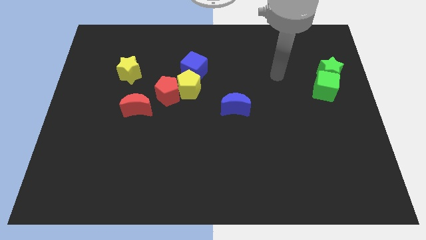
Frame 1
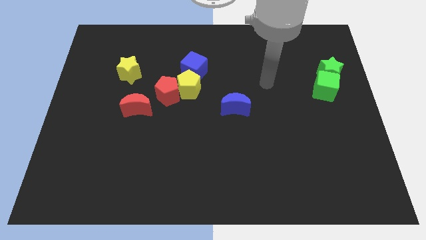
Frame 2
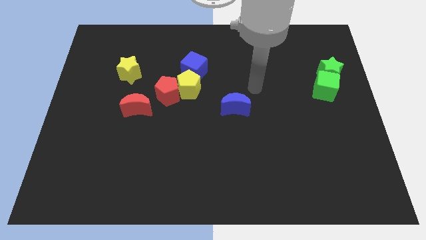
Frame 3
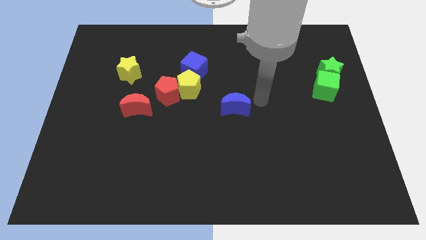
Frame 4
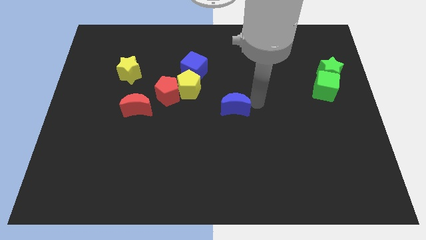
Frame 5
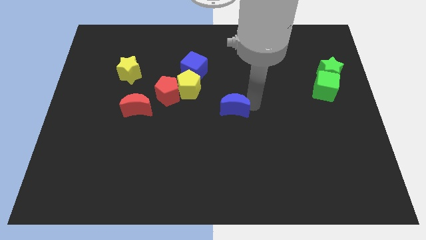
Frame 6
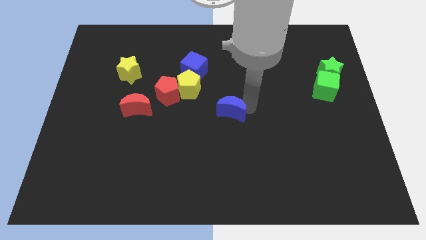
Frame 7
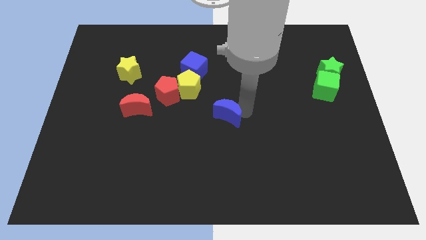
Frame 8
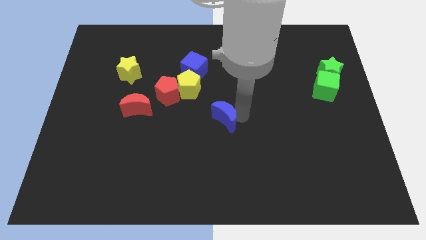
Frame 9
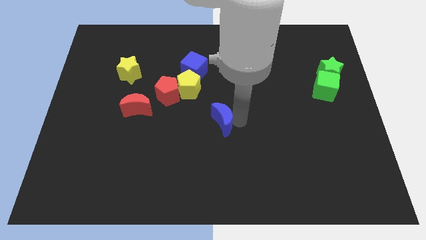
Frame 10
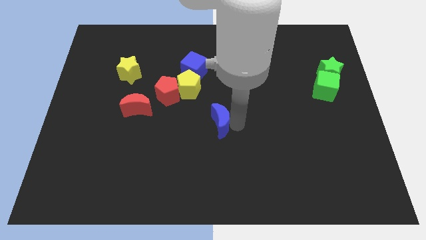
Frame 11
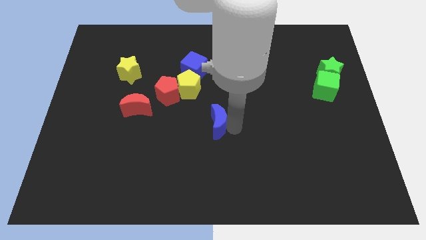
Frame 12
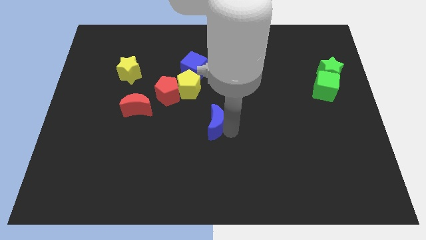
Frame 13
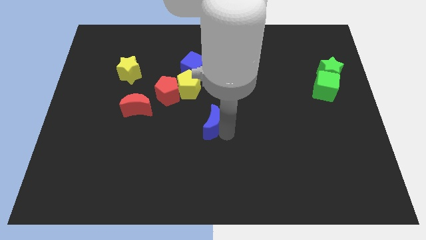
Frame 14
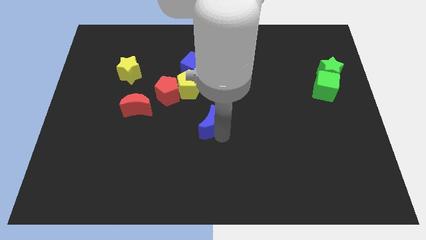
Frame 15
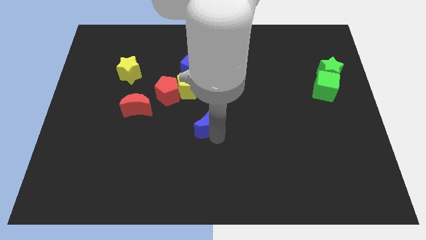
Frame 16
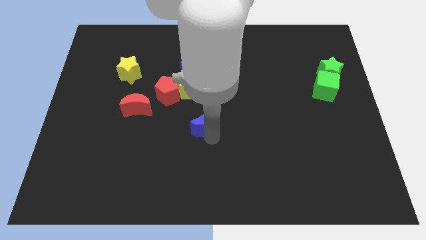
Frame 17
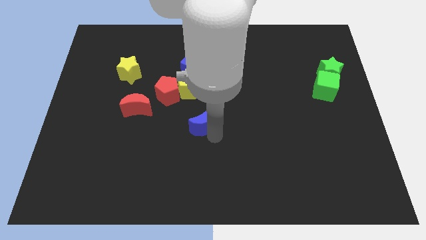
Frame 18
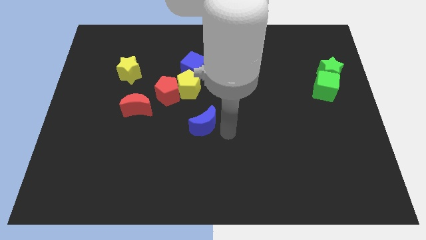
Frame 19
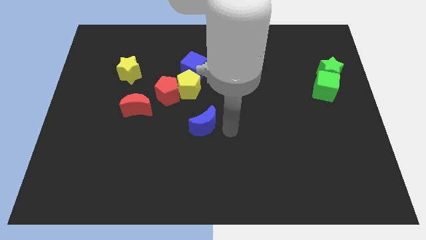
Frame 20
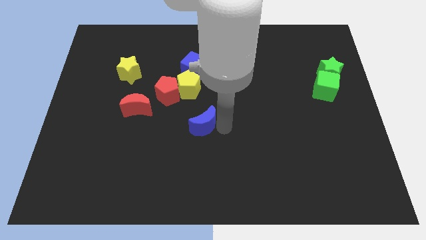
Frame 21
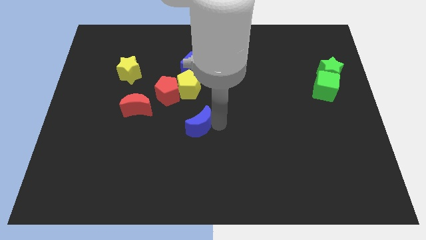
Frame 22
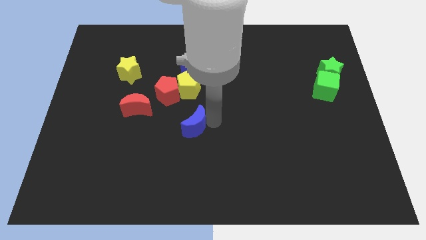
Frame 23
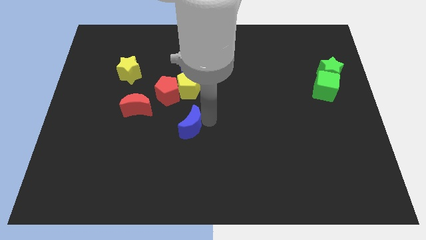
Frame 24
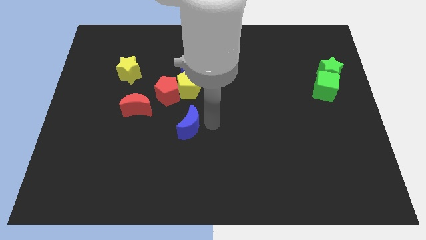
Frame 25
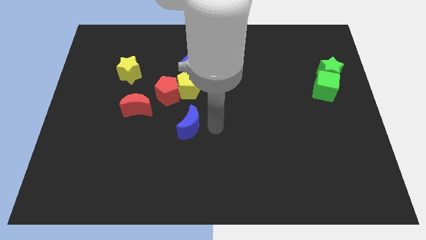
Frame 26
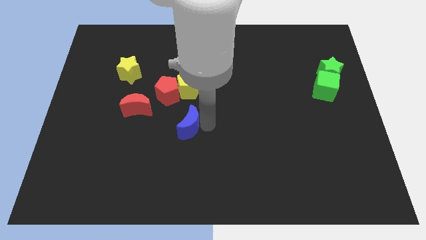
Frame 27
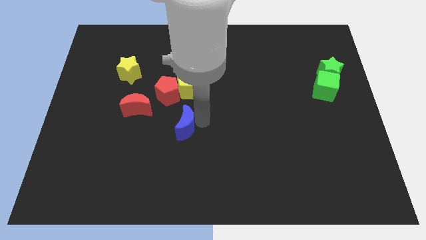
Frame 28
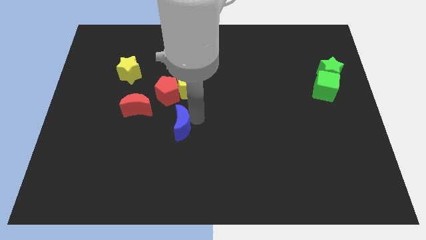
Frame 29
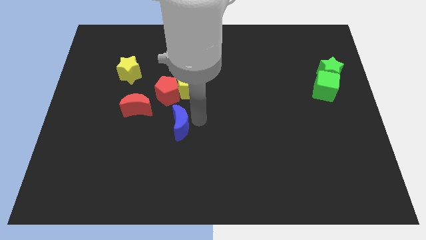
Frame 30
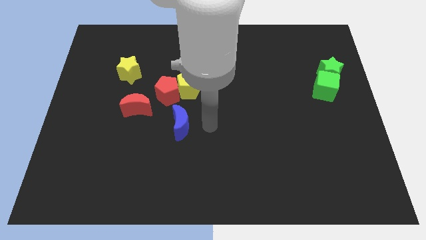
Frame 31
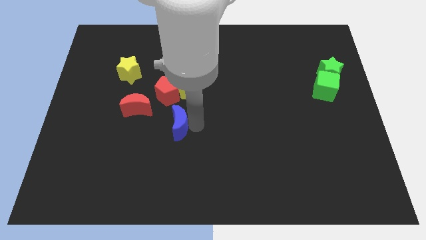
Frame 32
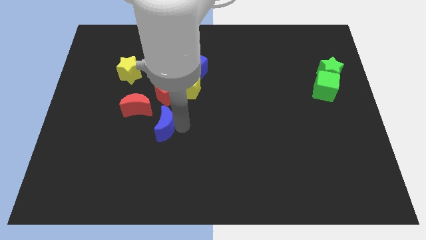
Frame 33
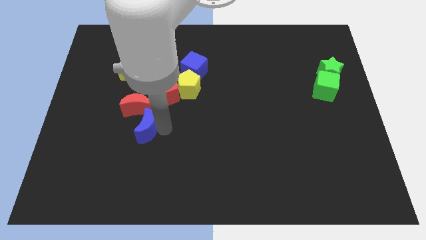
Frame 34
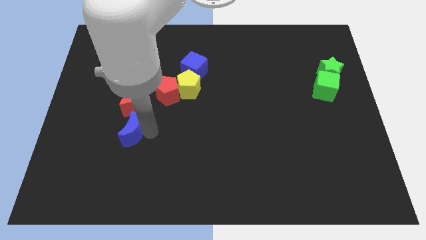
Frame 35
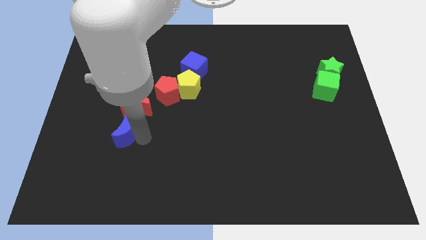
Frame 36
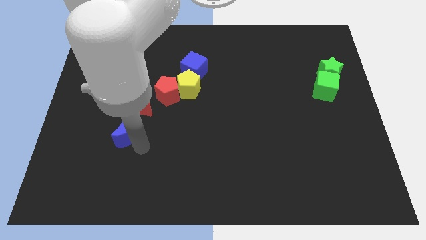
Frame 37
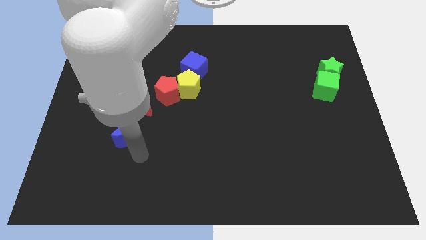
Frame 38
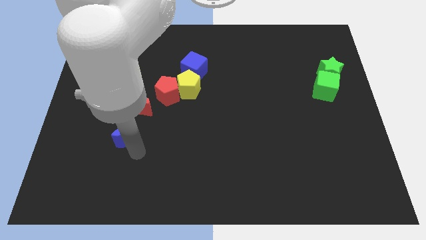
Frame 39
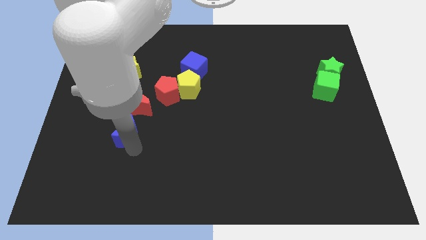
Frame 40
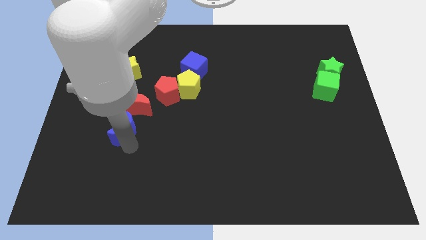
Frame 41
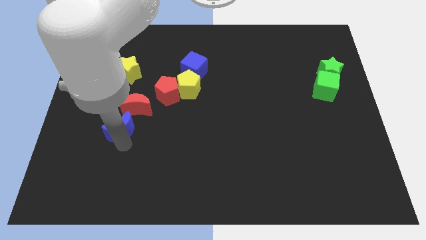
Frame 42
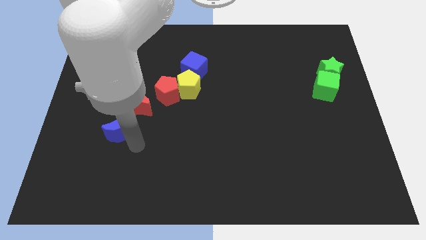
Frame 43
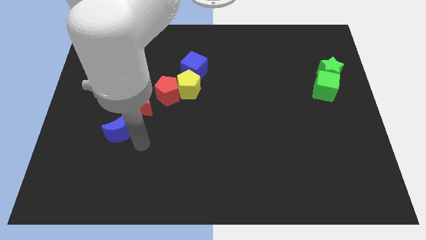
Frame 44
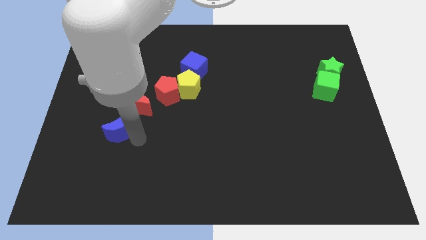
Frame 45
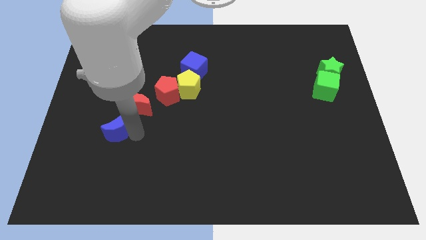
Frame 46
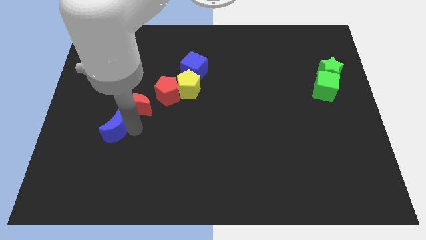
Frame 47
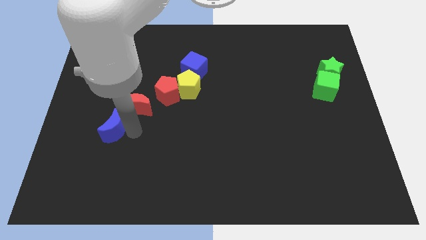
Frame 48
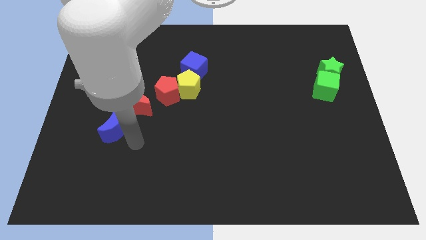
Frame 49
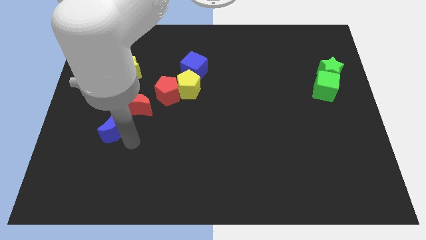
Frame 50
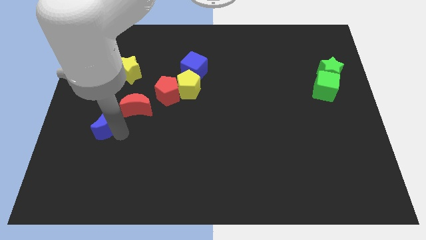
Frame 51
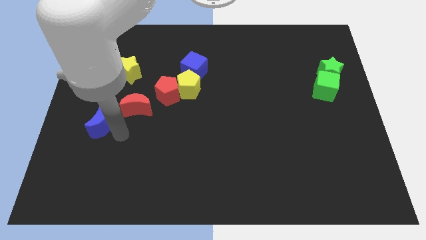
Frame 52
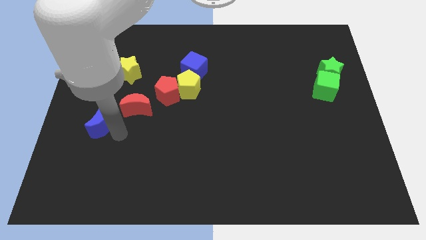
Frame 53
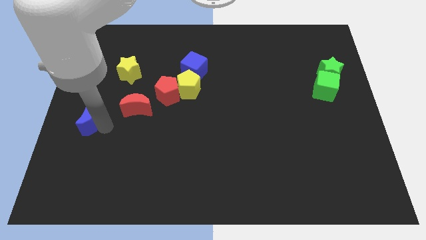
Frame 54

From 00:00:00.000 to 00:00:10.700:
push the blue moon to the center left
